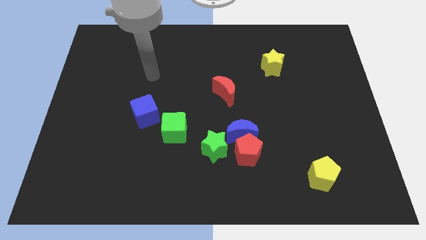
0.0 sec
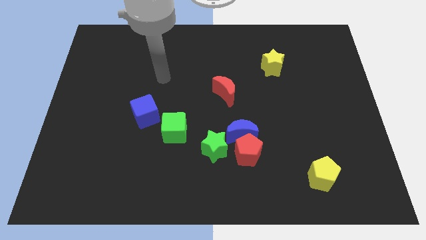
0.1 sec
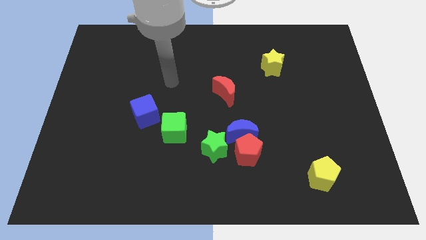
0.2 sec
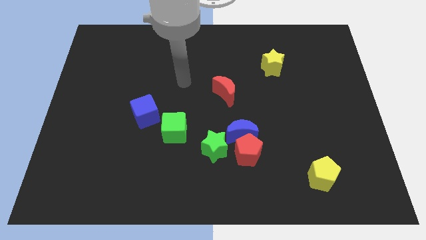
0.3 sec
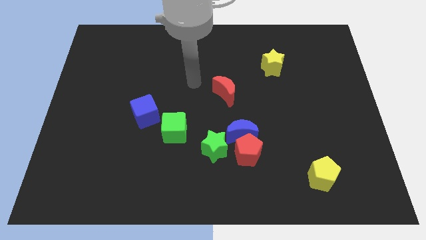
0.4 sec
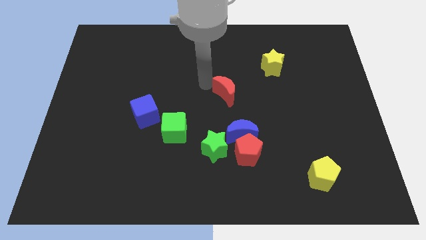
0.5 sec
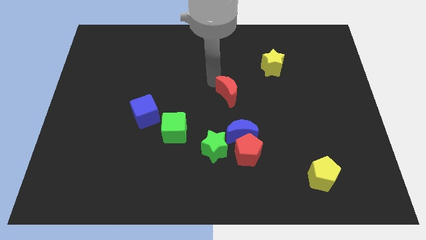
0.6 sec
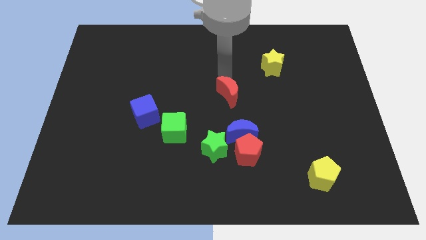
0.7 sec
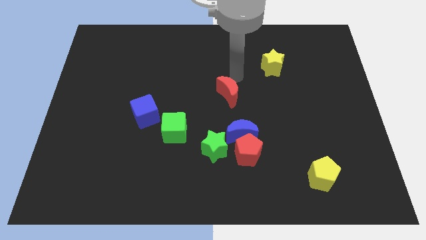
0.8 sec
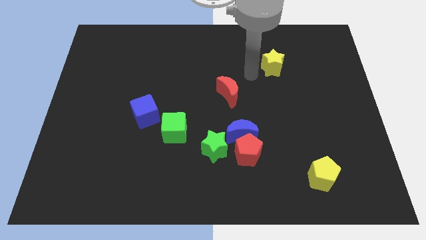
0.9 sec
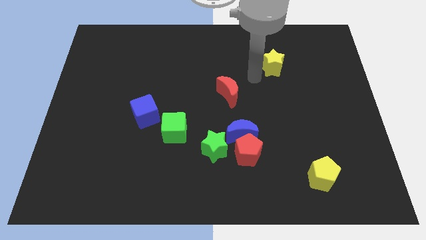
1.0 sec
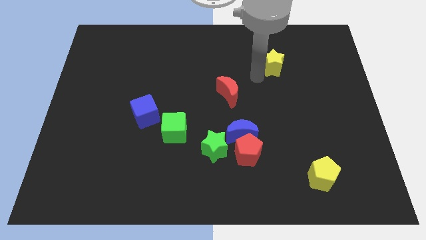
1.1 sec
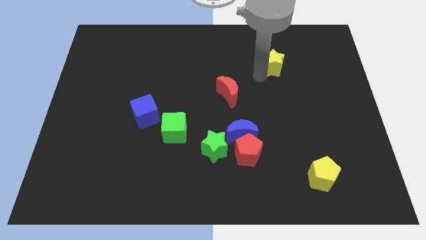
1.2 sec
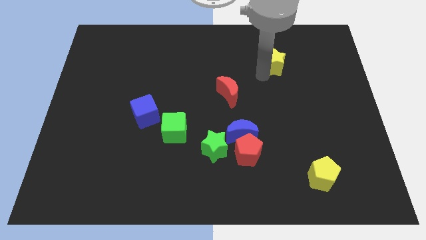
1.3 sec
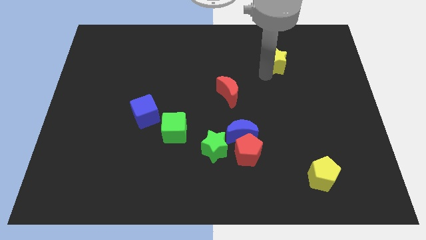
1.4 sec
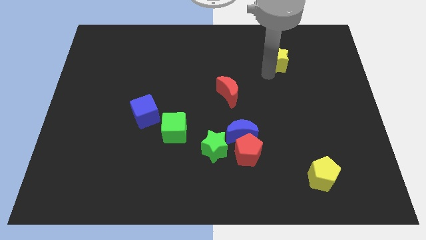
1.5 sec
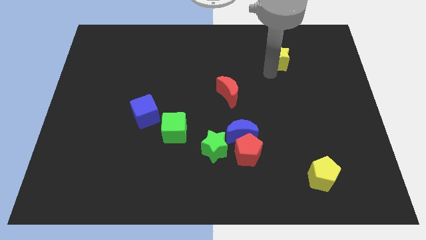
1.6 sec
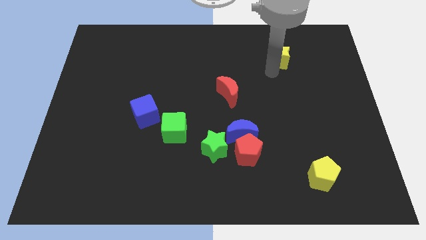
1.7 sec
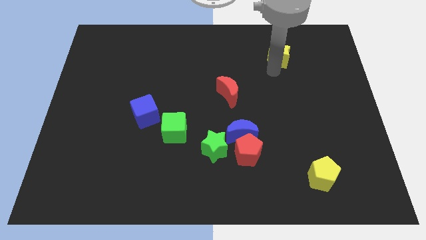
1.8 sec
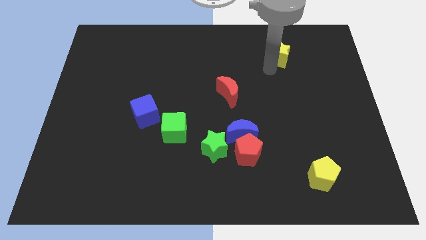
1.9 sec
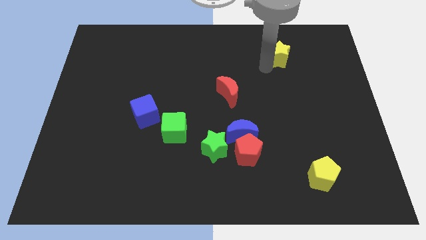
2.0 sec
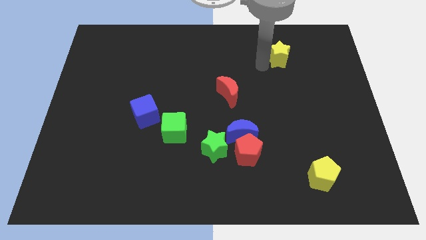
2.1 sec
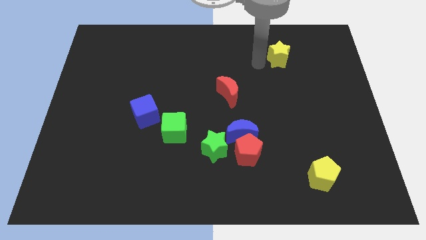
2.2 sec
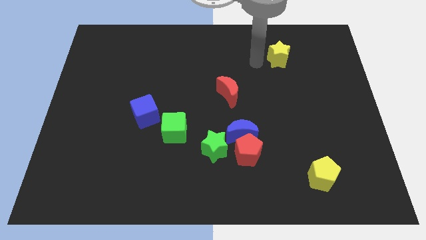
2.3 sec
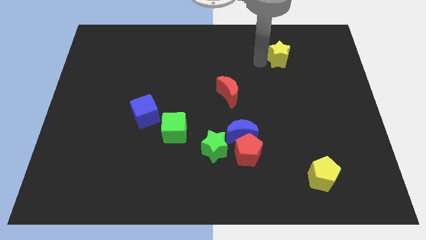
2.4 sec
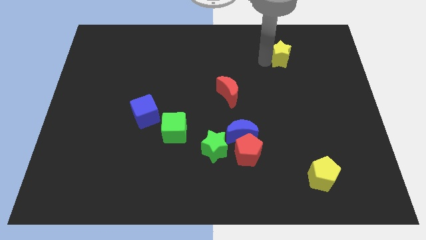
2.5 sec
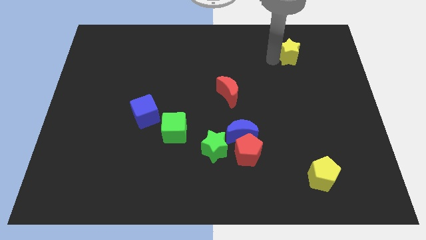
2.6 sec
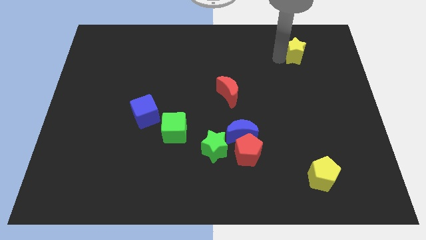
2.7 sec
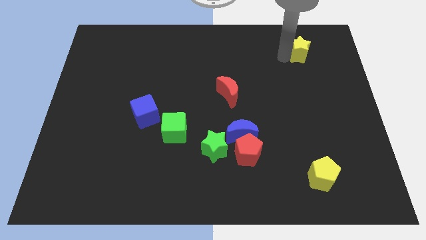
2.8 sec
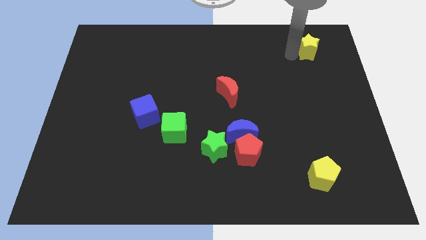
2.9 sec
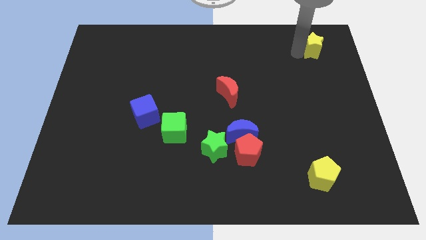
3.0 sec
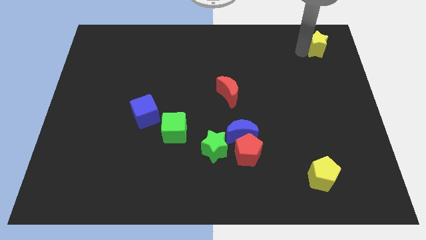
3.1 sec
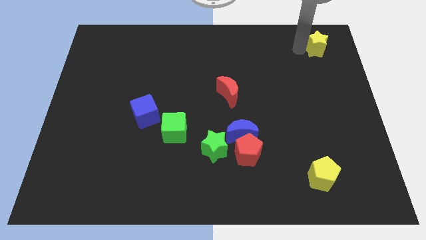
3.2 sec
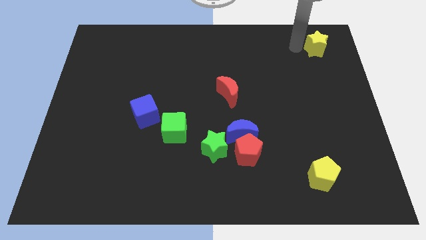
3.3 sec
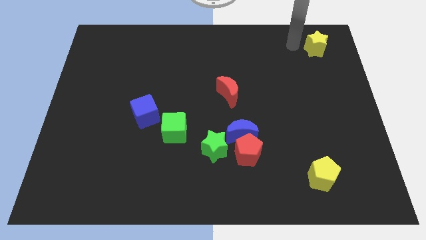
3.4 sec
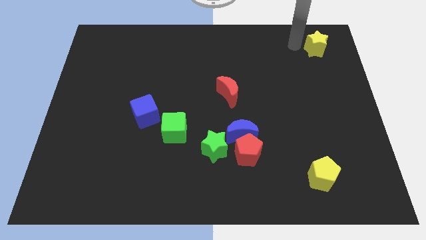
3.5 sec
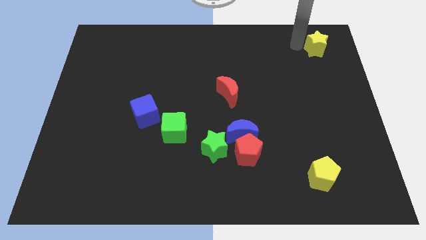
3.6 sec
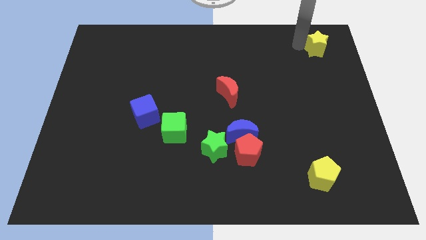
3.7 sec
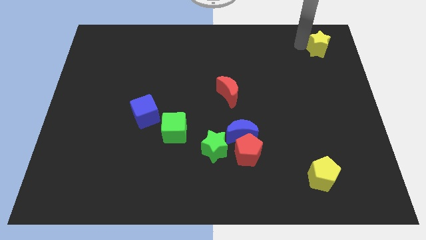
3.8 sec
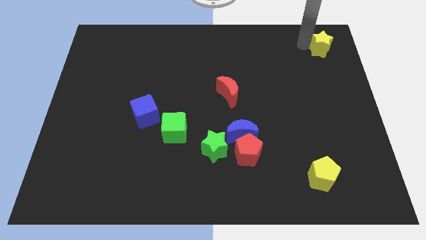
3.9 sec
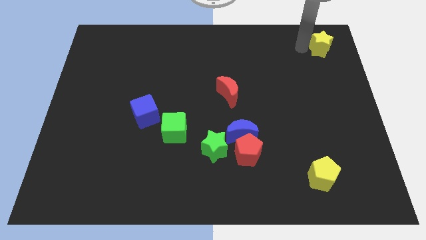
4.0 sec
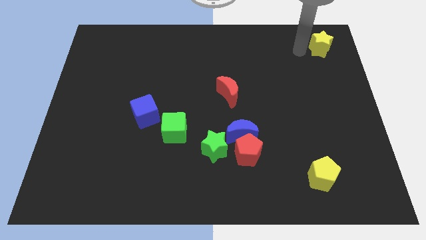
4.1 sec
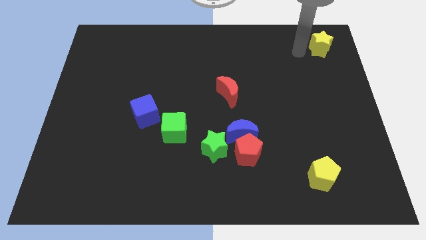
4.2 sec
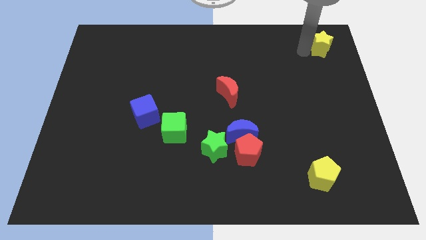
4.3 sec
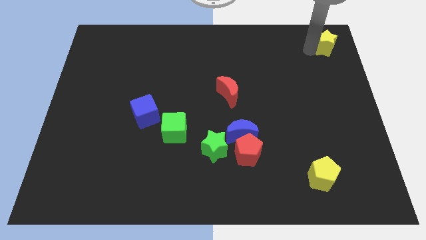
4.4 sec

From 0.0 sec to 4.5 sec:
put the yellow star to the upper right corner

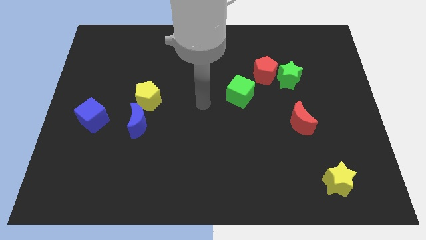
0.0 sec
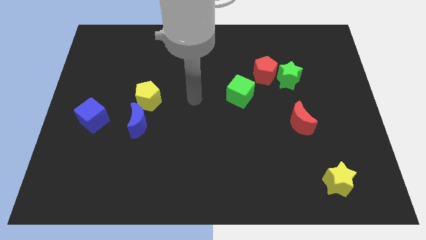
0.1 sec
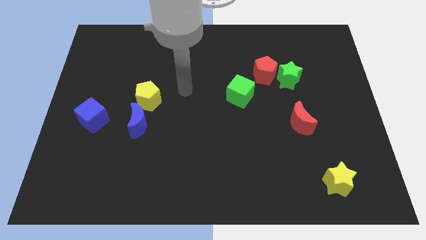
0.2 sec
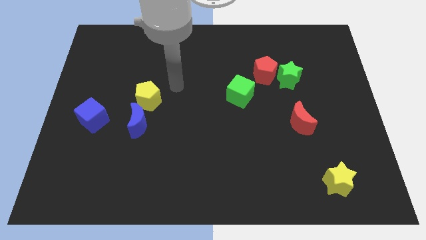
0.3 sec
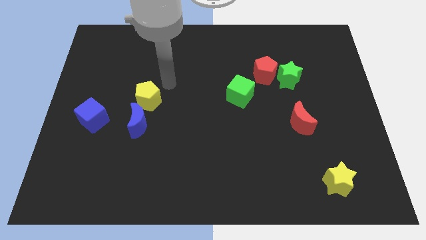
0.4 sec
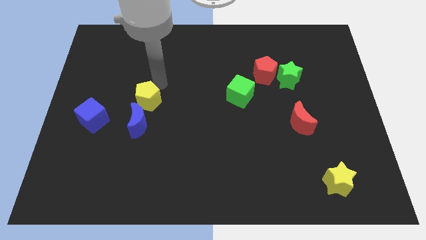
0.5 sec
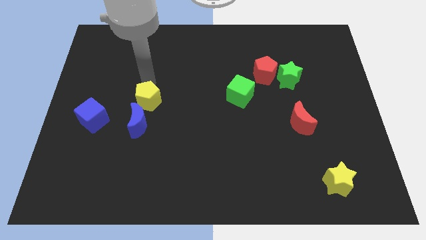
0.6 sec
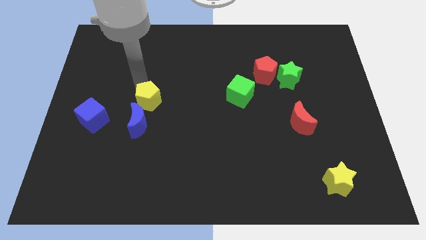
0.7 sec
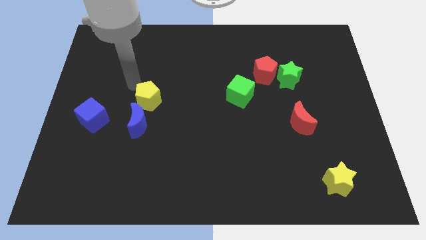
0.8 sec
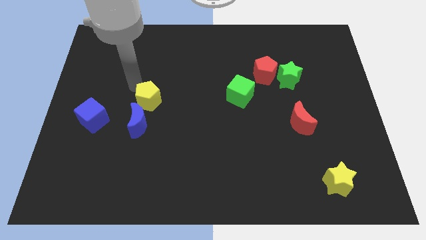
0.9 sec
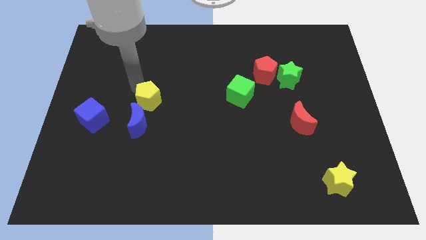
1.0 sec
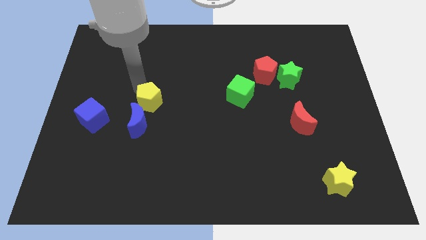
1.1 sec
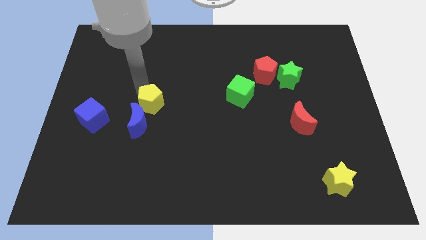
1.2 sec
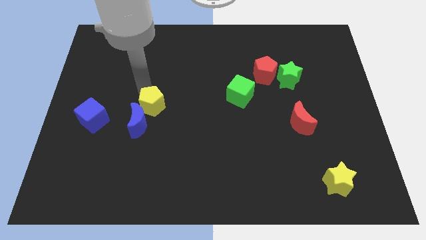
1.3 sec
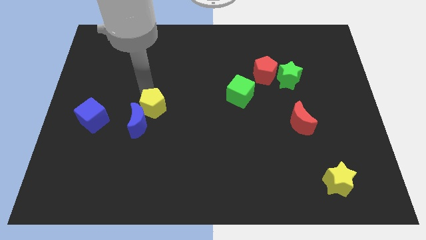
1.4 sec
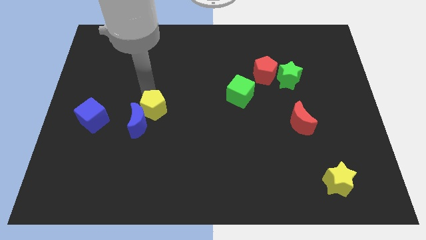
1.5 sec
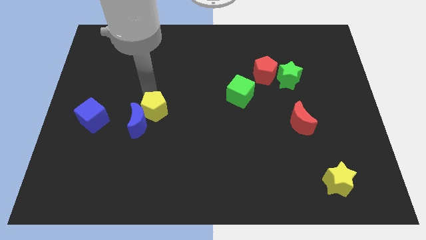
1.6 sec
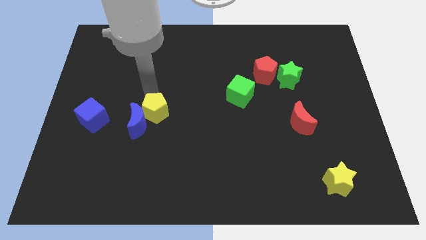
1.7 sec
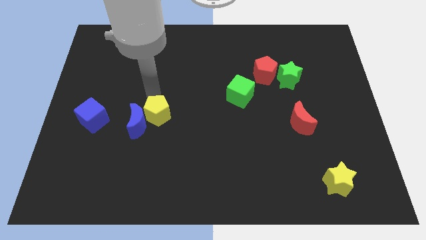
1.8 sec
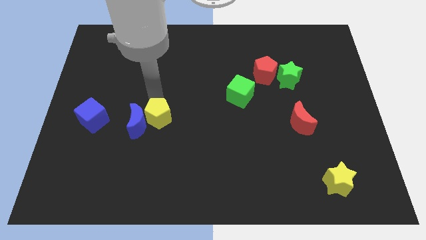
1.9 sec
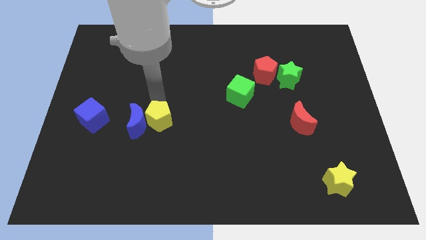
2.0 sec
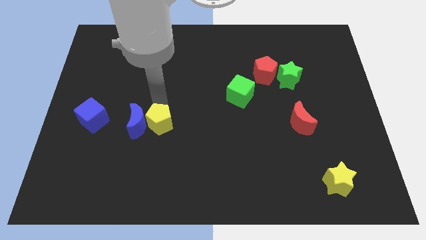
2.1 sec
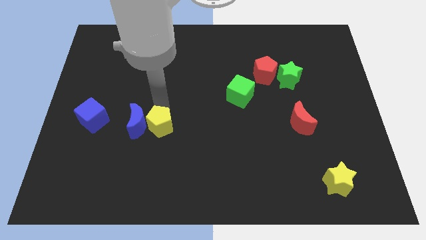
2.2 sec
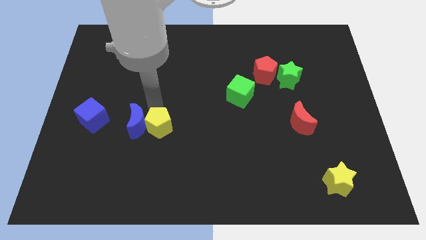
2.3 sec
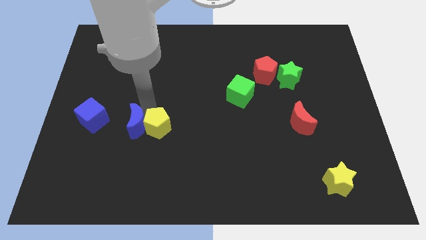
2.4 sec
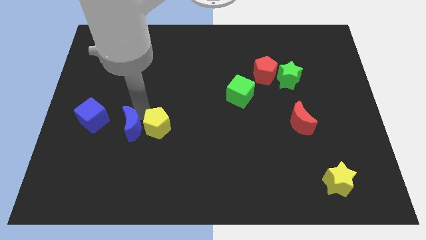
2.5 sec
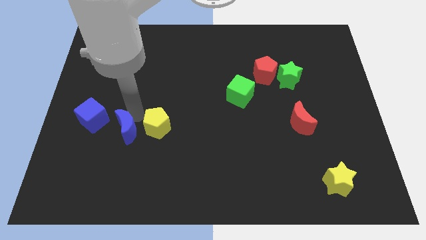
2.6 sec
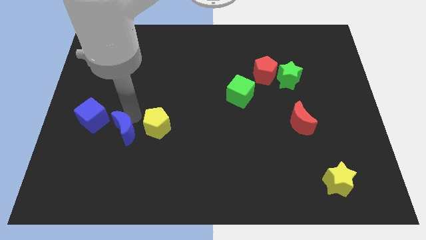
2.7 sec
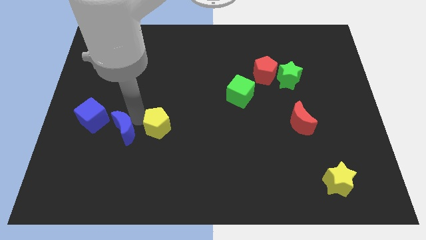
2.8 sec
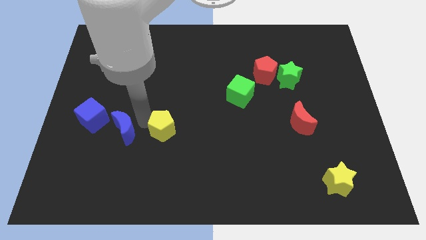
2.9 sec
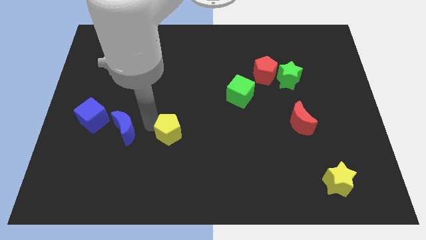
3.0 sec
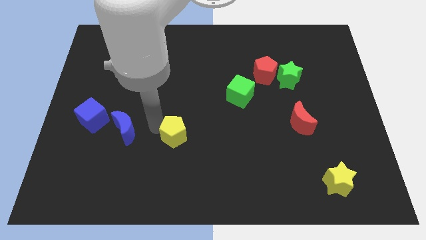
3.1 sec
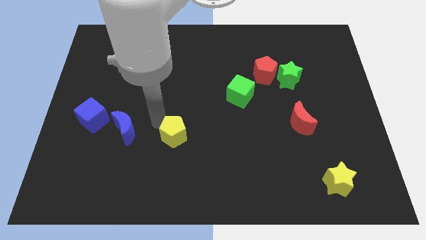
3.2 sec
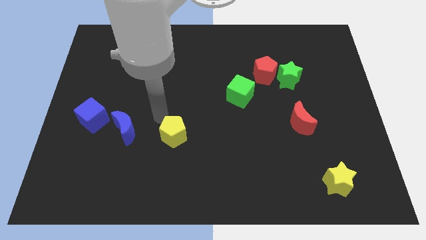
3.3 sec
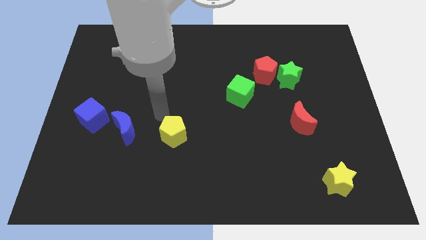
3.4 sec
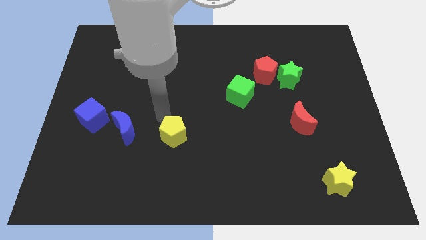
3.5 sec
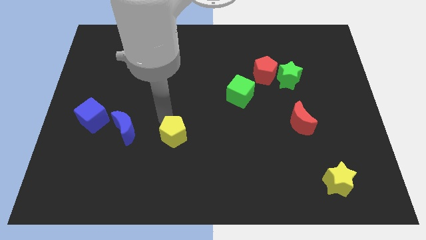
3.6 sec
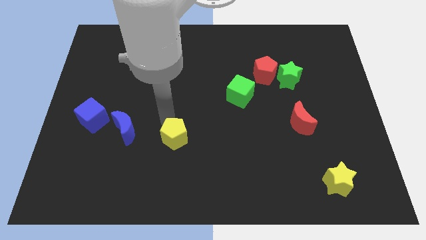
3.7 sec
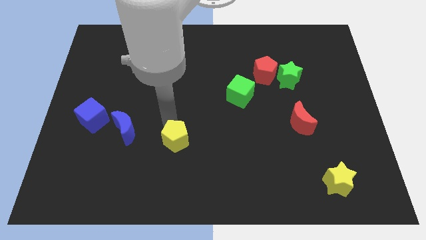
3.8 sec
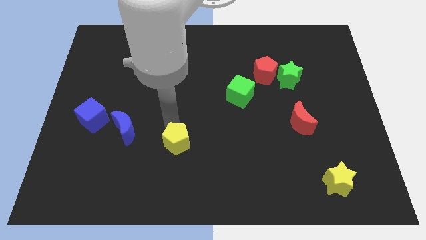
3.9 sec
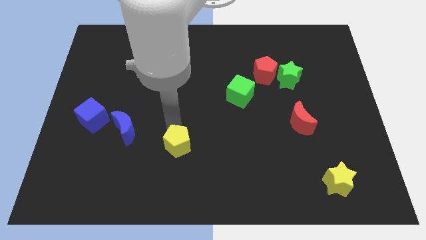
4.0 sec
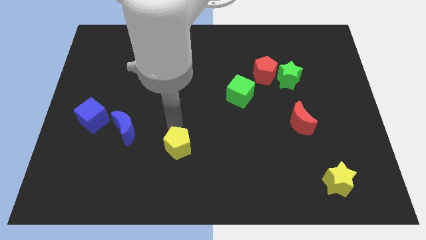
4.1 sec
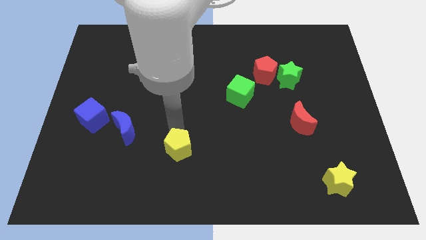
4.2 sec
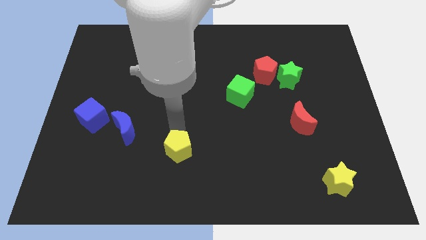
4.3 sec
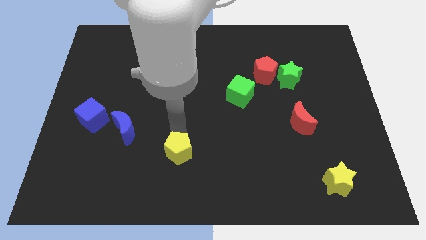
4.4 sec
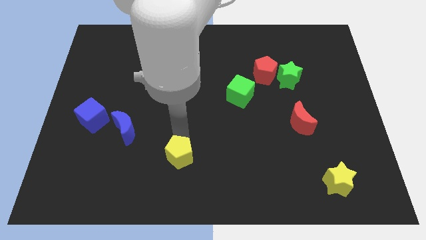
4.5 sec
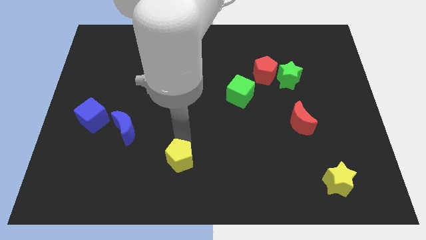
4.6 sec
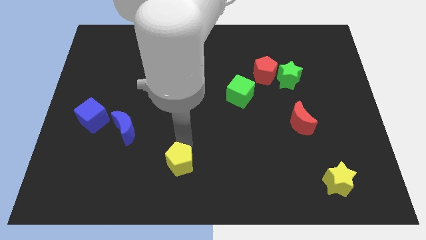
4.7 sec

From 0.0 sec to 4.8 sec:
push the yellow pentagon to the bottom
